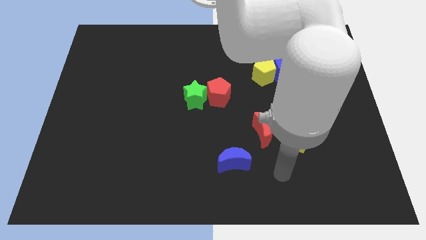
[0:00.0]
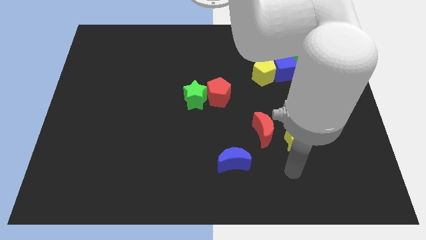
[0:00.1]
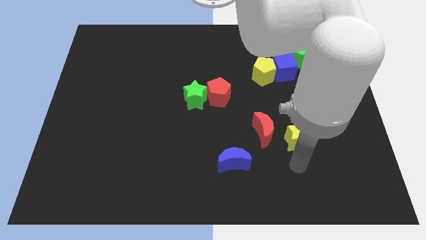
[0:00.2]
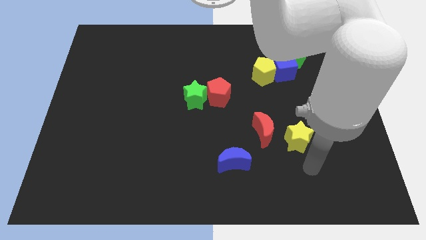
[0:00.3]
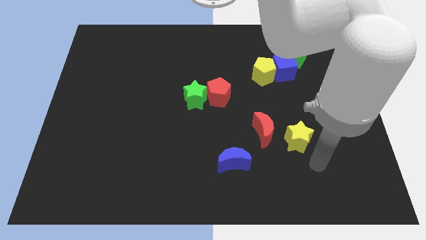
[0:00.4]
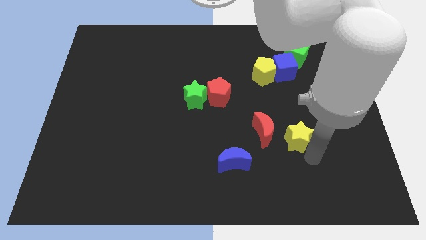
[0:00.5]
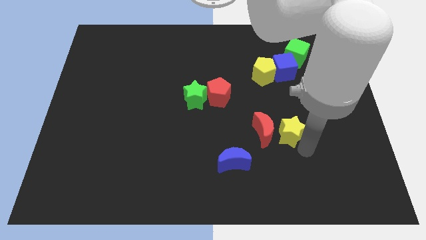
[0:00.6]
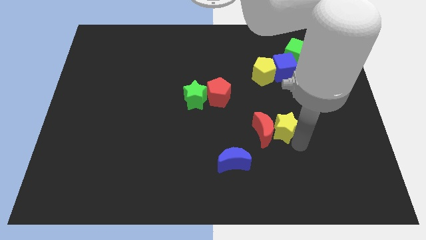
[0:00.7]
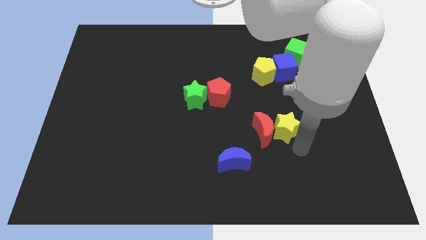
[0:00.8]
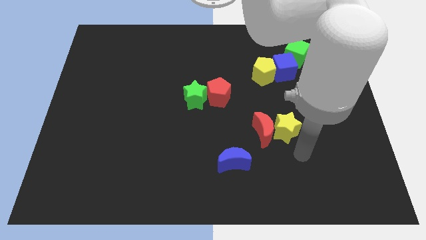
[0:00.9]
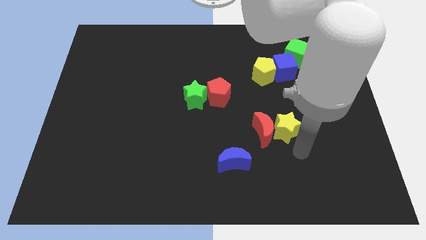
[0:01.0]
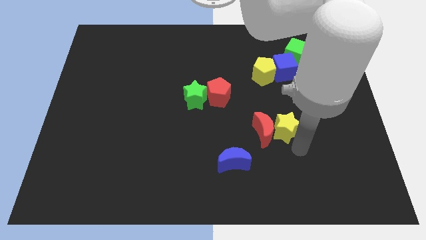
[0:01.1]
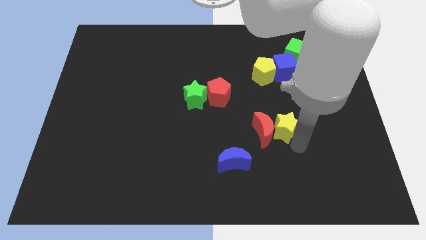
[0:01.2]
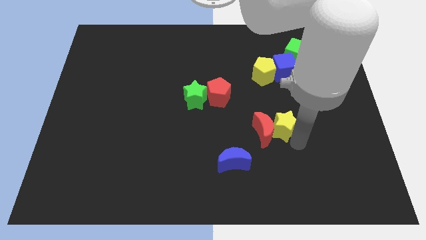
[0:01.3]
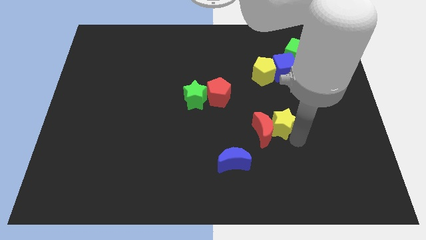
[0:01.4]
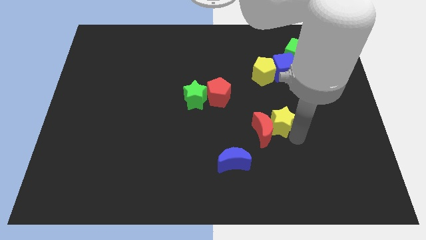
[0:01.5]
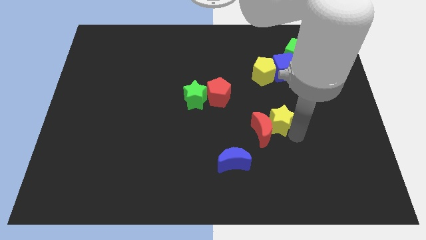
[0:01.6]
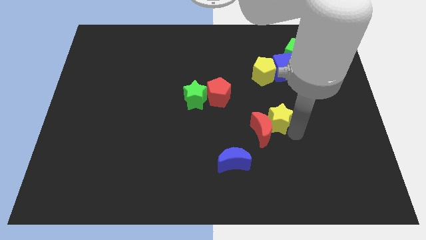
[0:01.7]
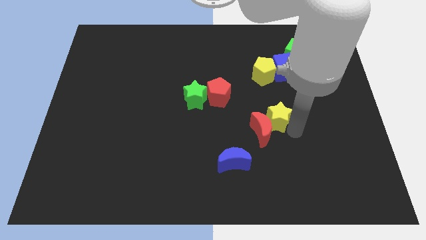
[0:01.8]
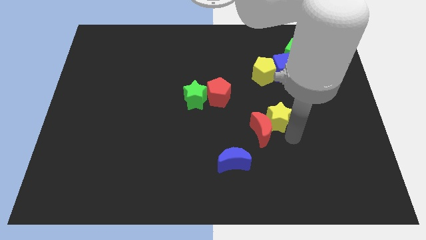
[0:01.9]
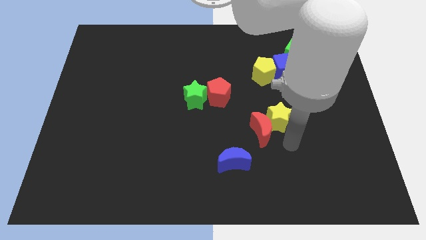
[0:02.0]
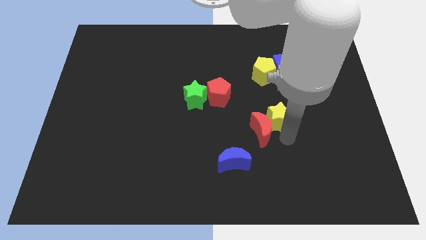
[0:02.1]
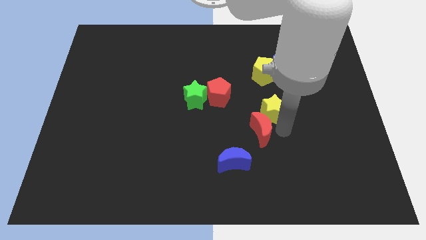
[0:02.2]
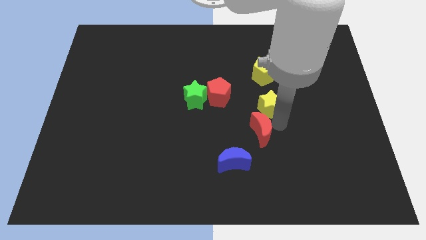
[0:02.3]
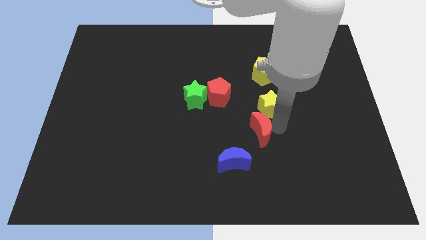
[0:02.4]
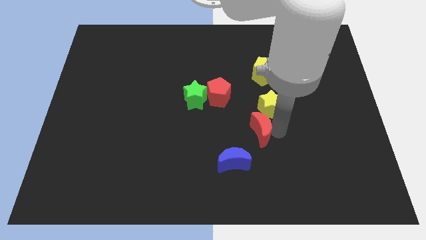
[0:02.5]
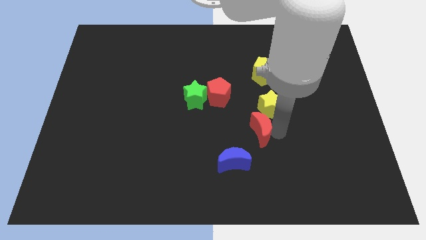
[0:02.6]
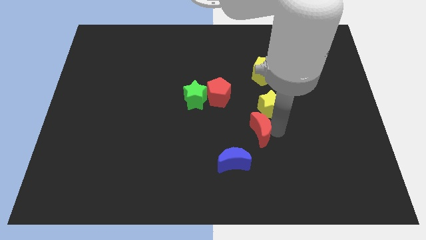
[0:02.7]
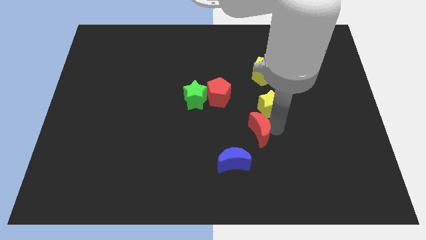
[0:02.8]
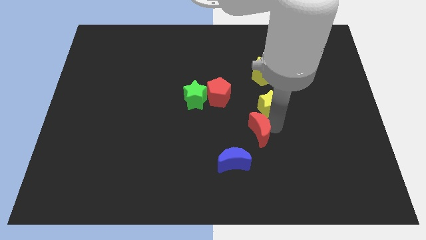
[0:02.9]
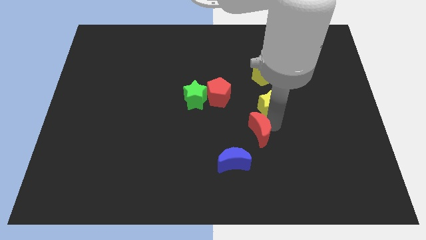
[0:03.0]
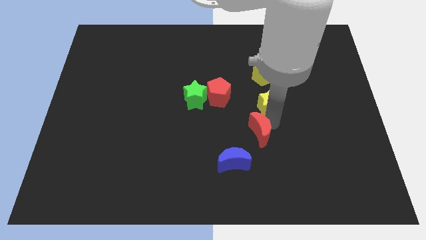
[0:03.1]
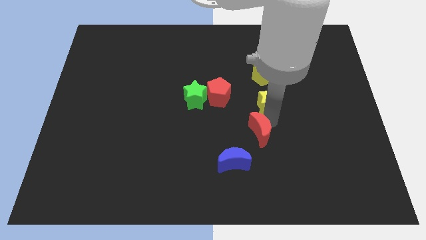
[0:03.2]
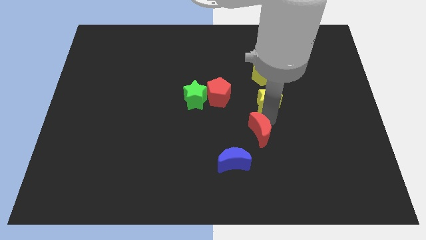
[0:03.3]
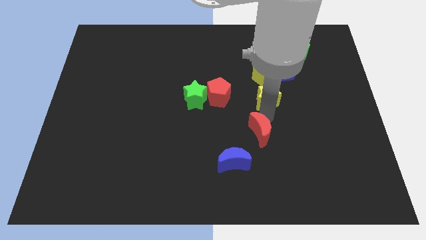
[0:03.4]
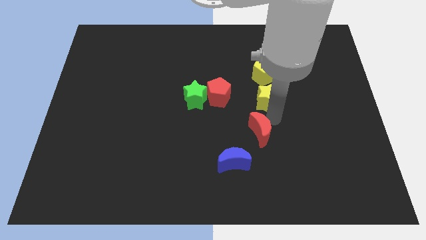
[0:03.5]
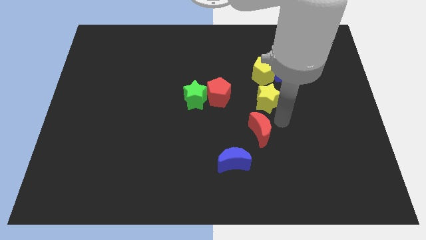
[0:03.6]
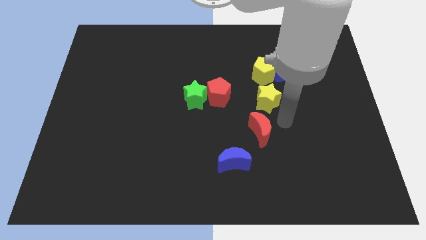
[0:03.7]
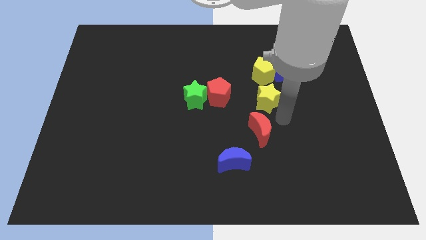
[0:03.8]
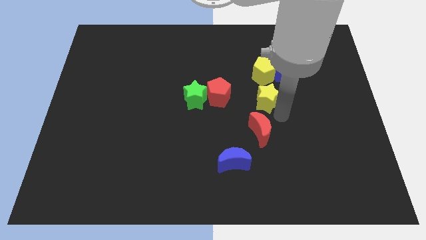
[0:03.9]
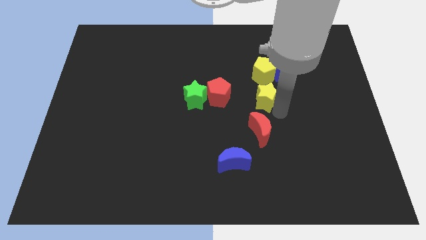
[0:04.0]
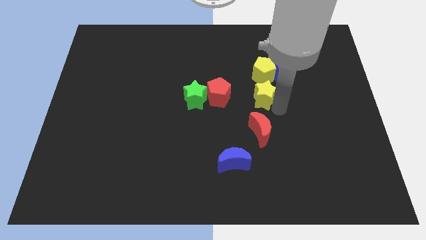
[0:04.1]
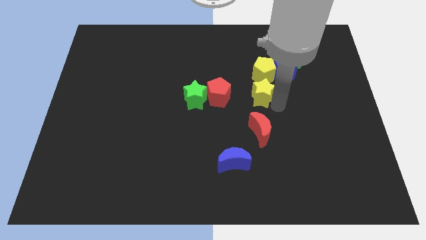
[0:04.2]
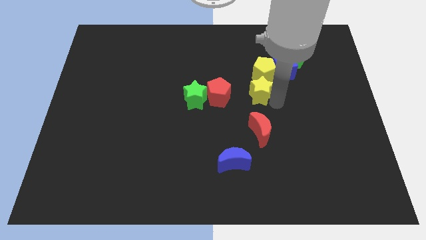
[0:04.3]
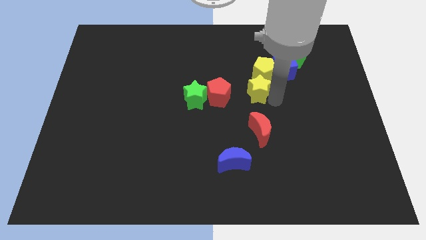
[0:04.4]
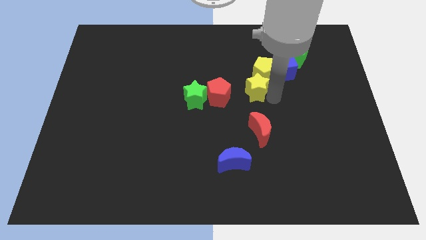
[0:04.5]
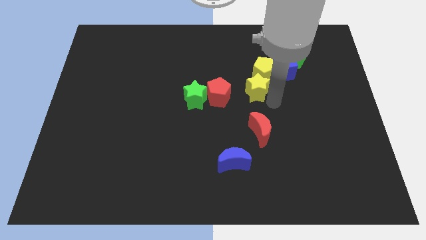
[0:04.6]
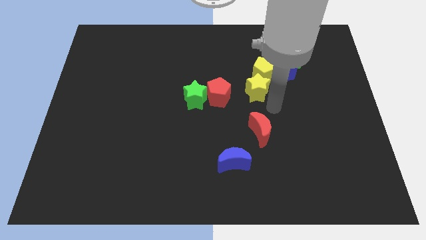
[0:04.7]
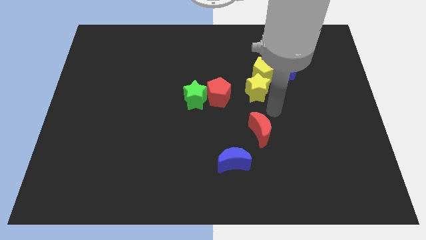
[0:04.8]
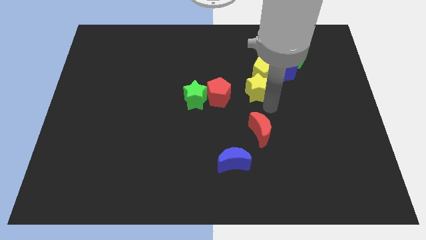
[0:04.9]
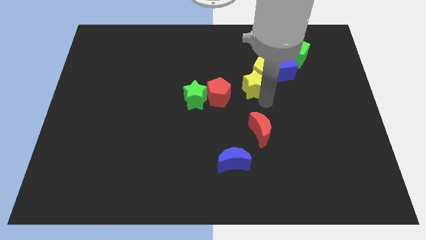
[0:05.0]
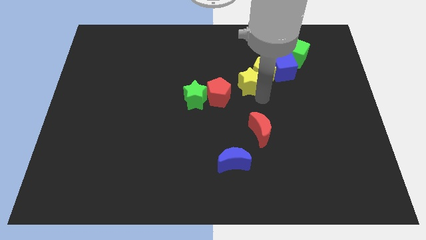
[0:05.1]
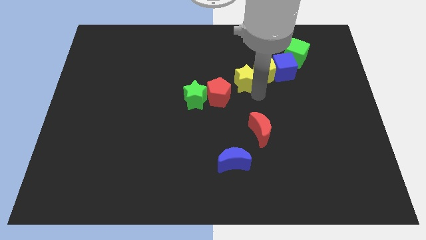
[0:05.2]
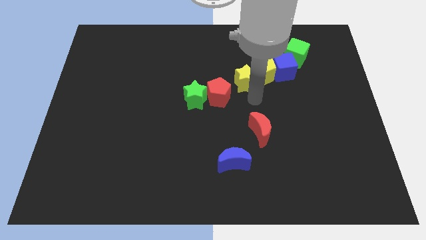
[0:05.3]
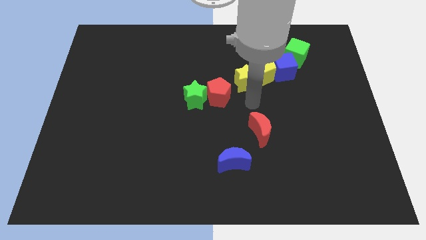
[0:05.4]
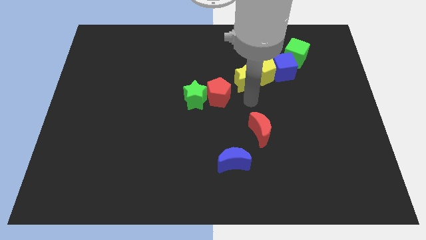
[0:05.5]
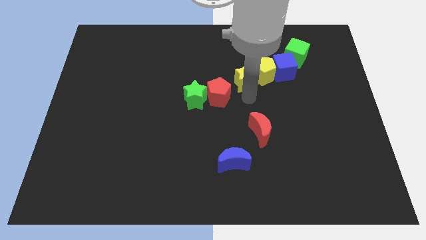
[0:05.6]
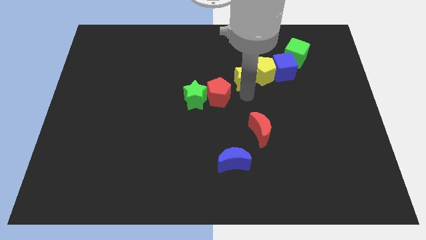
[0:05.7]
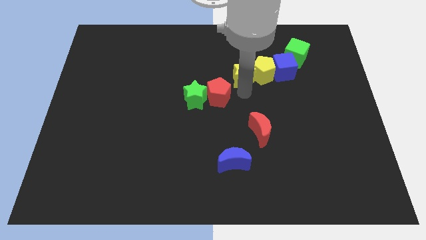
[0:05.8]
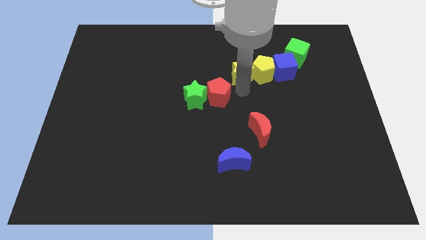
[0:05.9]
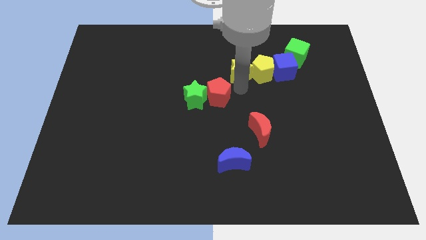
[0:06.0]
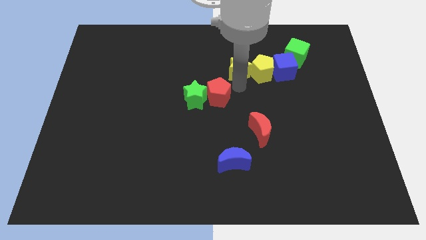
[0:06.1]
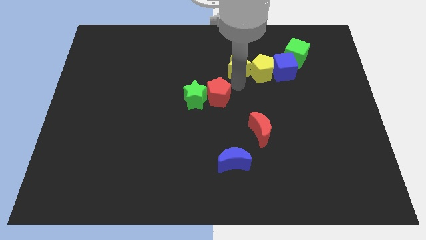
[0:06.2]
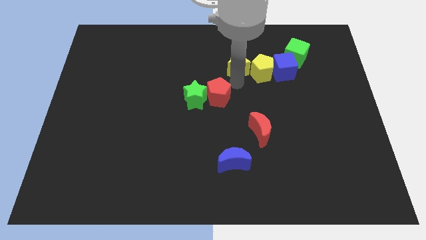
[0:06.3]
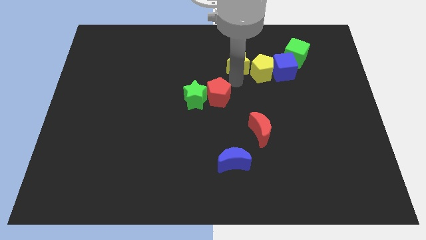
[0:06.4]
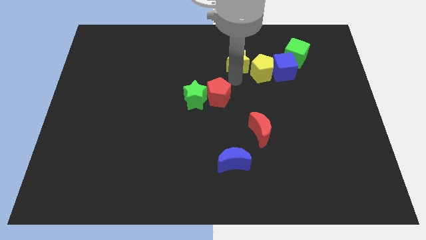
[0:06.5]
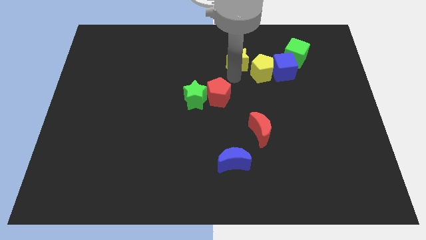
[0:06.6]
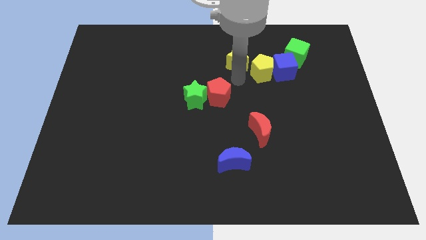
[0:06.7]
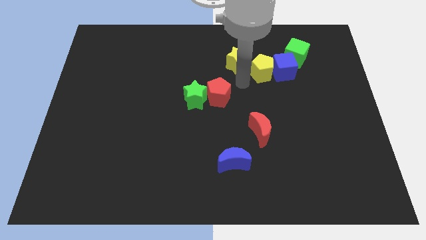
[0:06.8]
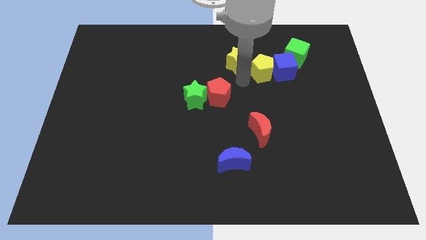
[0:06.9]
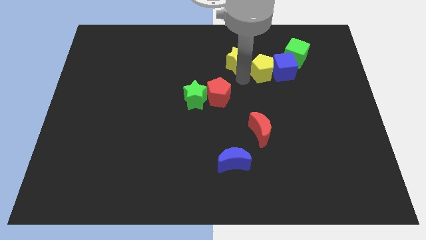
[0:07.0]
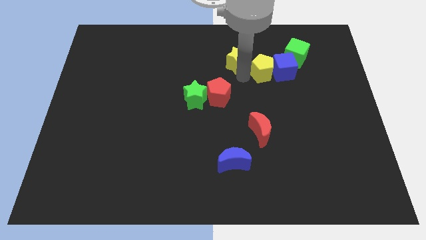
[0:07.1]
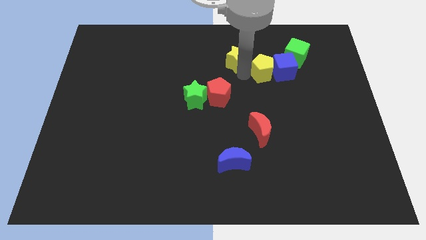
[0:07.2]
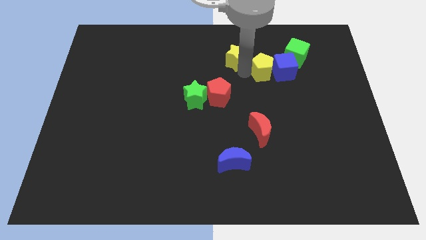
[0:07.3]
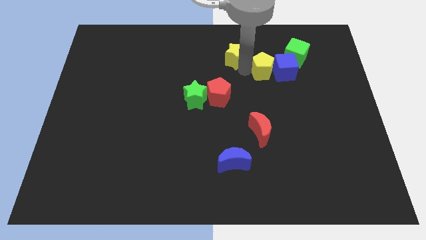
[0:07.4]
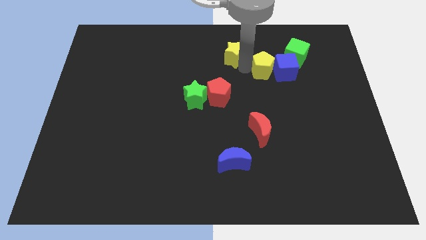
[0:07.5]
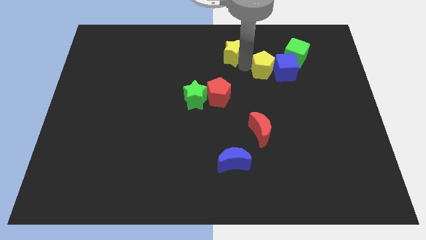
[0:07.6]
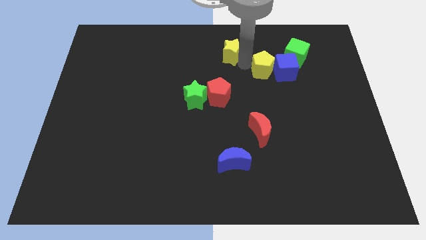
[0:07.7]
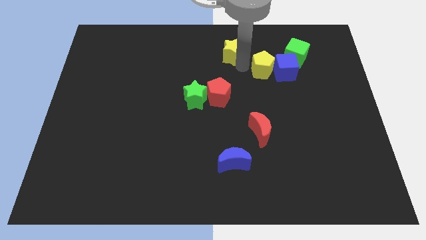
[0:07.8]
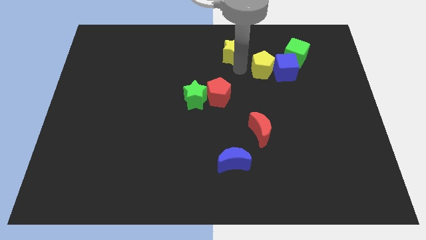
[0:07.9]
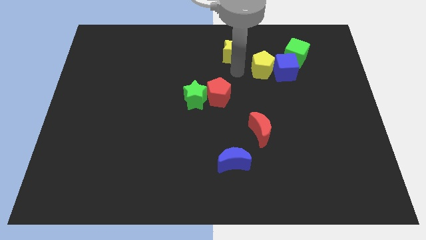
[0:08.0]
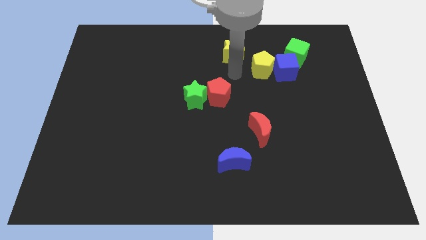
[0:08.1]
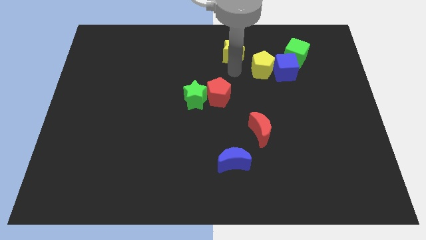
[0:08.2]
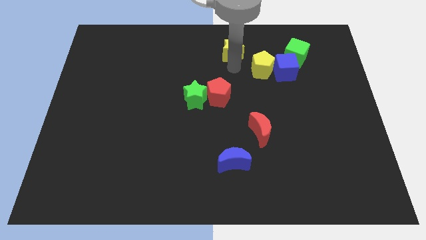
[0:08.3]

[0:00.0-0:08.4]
slide the yellow star to the towards your base
